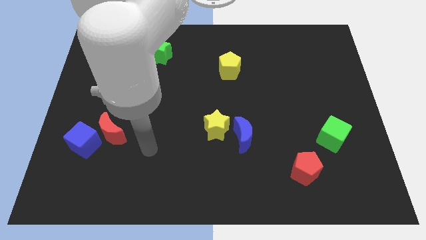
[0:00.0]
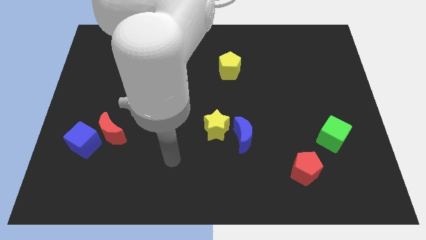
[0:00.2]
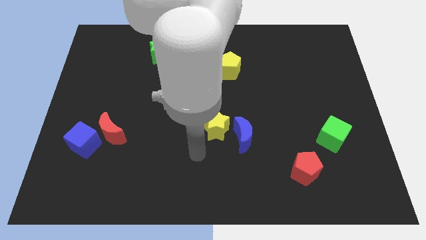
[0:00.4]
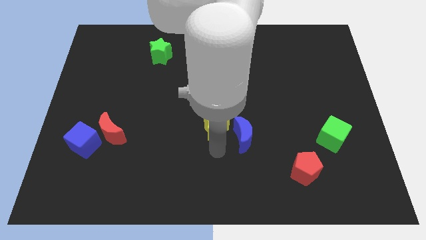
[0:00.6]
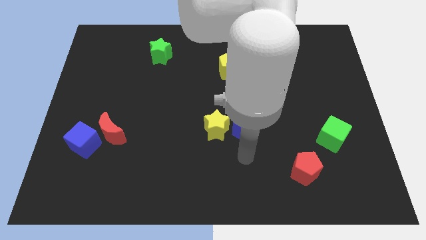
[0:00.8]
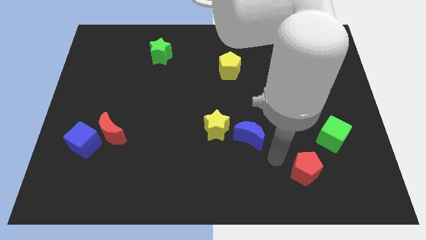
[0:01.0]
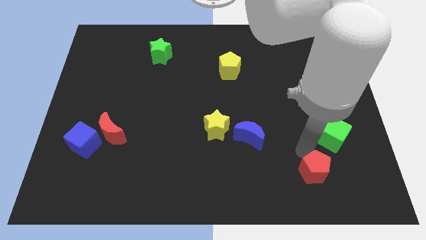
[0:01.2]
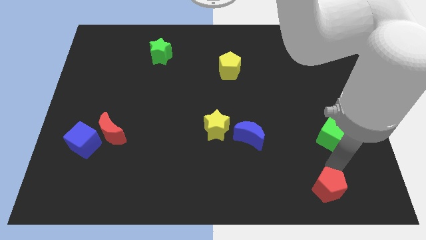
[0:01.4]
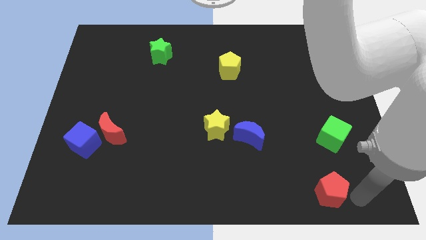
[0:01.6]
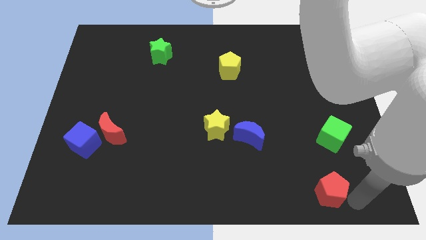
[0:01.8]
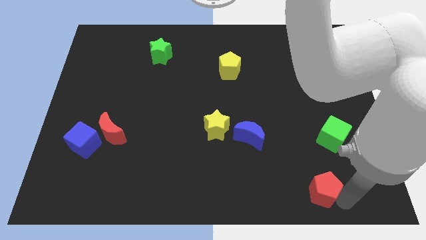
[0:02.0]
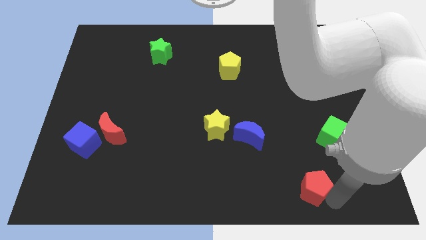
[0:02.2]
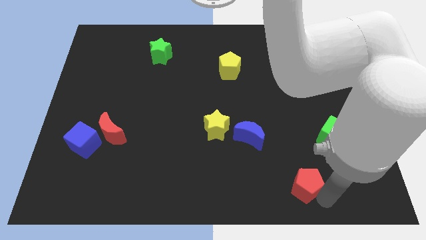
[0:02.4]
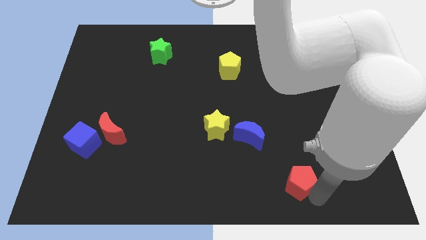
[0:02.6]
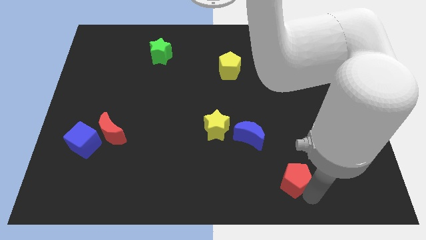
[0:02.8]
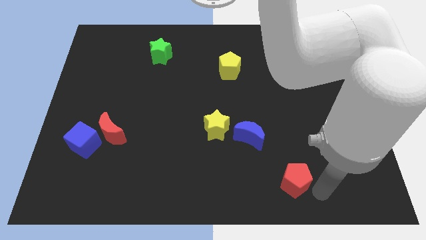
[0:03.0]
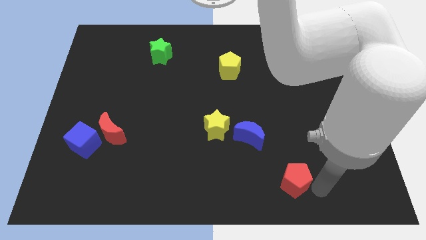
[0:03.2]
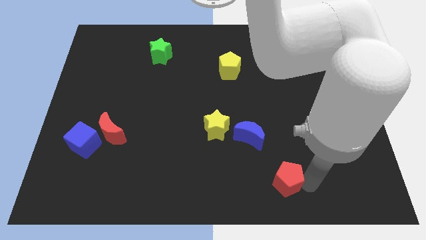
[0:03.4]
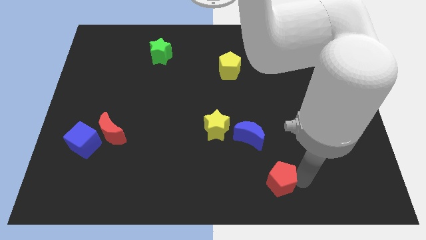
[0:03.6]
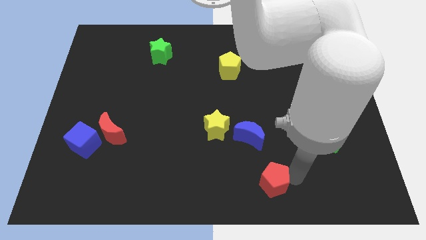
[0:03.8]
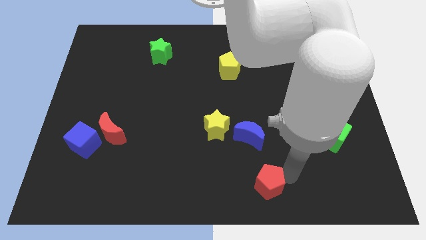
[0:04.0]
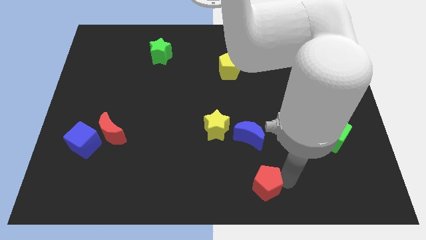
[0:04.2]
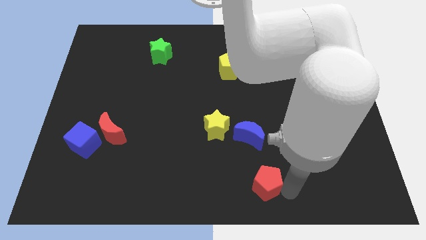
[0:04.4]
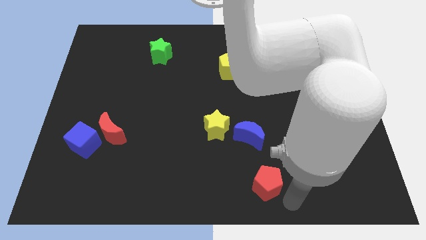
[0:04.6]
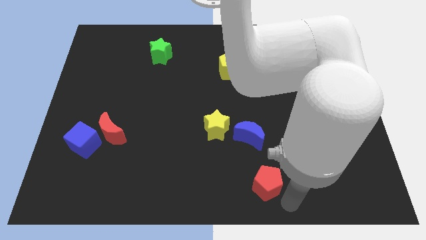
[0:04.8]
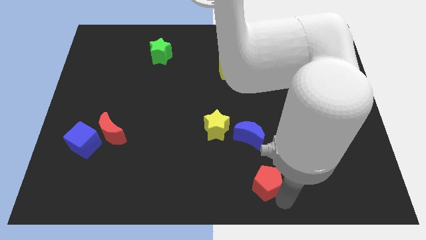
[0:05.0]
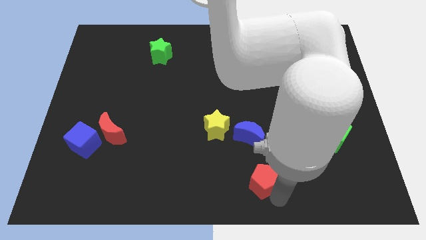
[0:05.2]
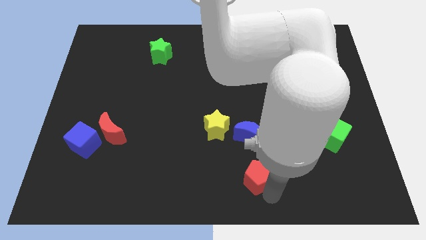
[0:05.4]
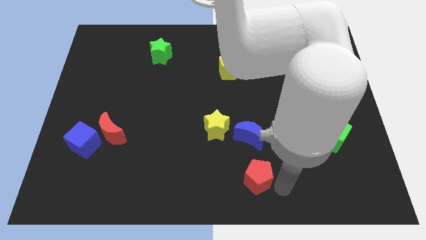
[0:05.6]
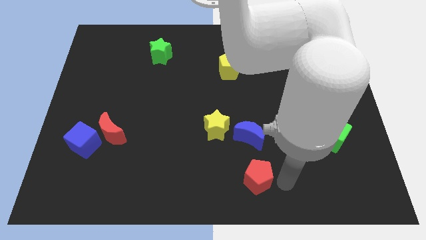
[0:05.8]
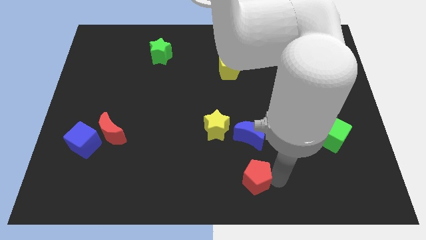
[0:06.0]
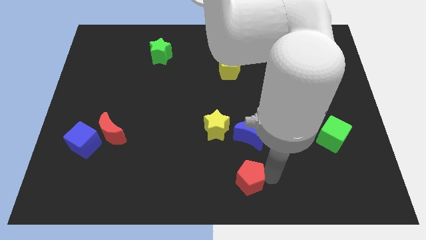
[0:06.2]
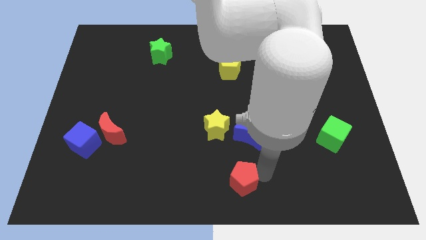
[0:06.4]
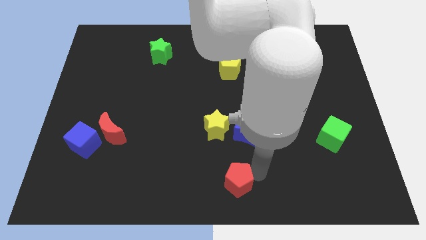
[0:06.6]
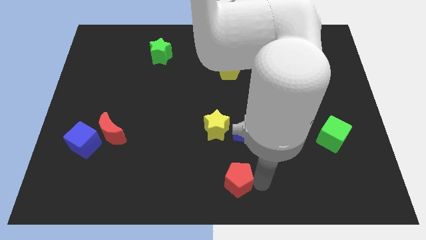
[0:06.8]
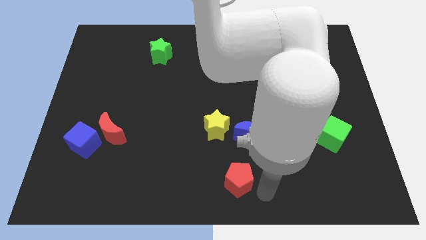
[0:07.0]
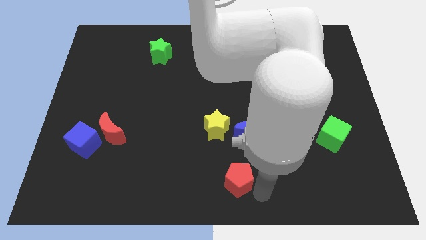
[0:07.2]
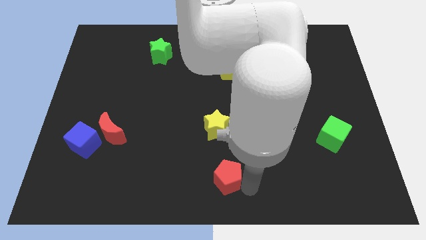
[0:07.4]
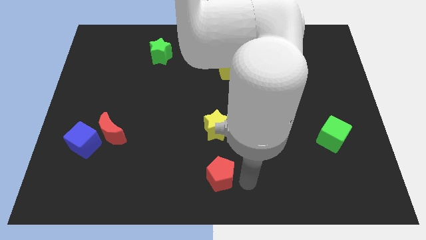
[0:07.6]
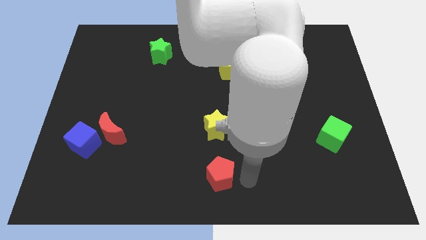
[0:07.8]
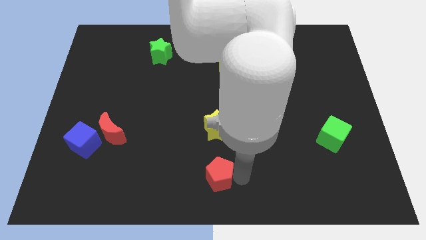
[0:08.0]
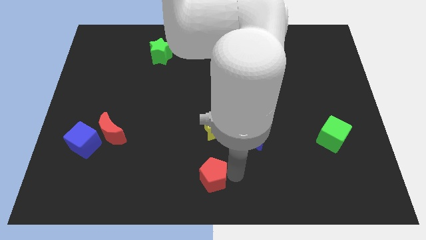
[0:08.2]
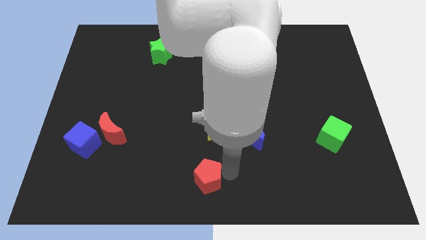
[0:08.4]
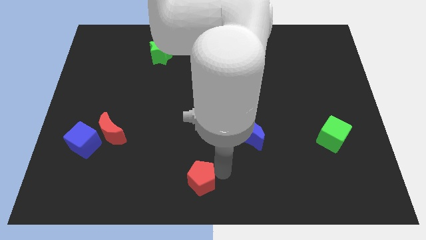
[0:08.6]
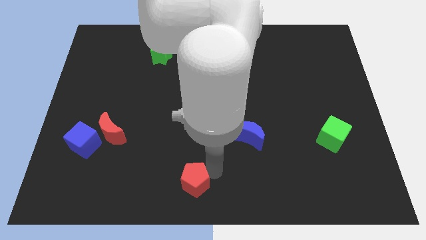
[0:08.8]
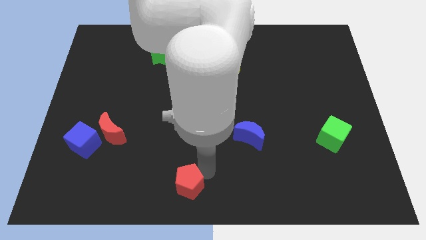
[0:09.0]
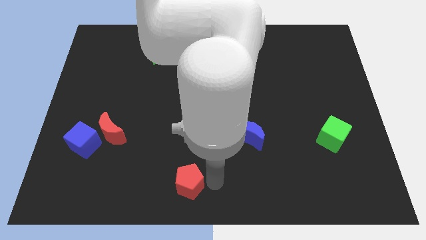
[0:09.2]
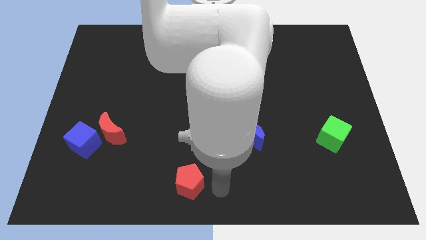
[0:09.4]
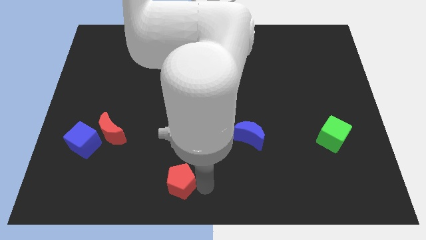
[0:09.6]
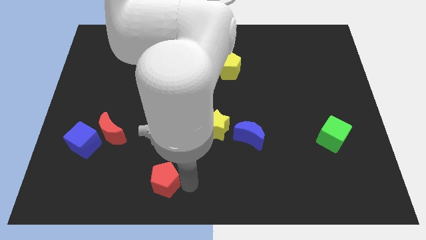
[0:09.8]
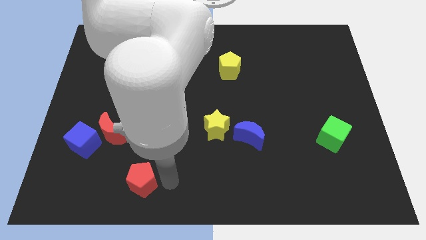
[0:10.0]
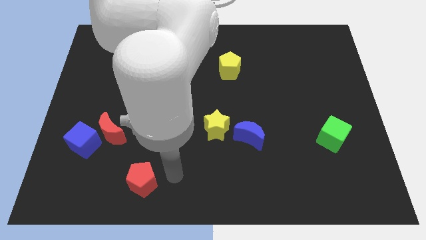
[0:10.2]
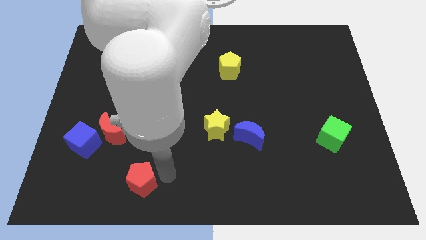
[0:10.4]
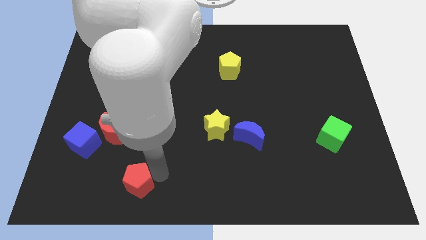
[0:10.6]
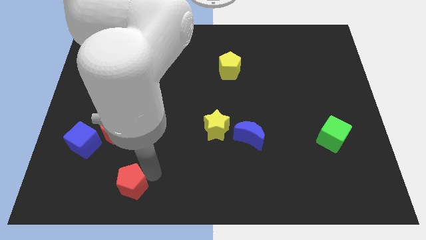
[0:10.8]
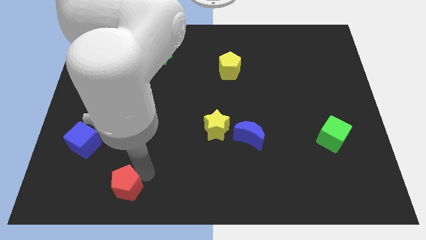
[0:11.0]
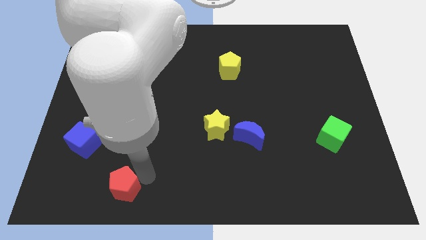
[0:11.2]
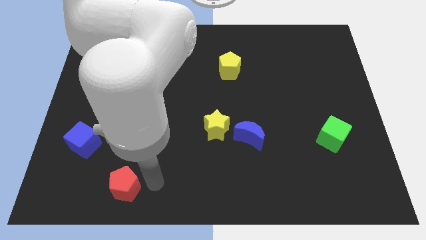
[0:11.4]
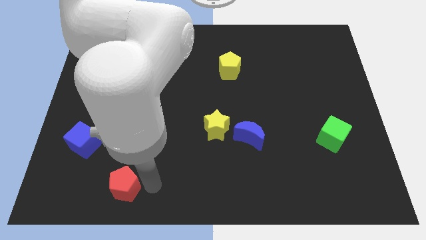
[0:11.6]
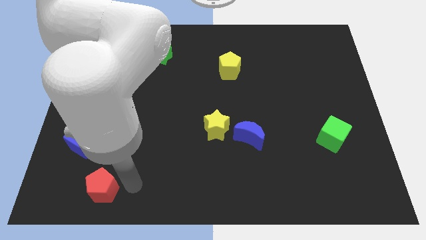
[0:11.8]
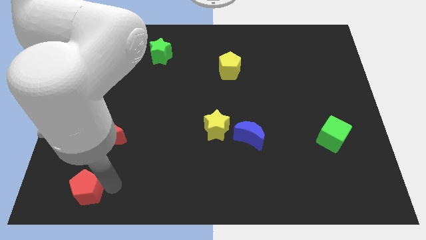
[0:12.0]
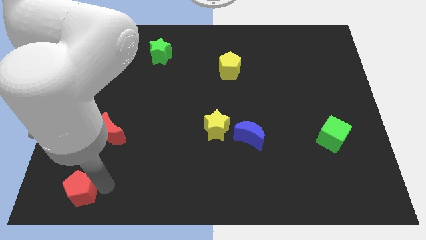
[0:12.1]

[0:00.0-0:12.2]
slide the red pentagon to the lower left corner
